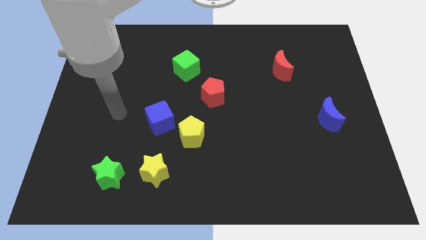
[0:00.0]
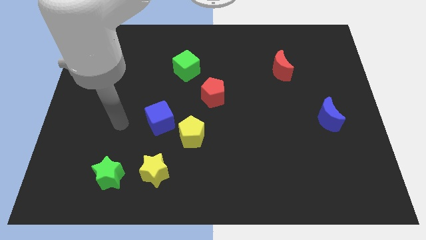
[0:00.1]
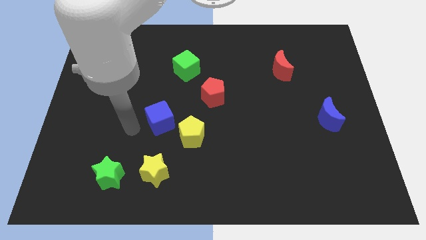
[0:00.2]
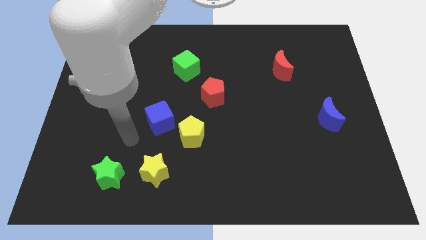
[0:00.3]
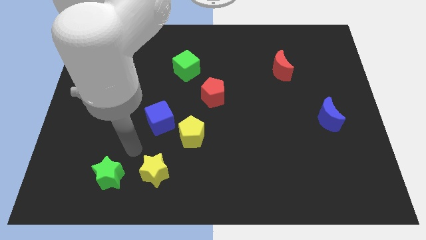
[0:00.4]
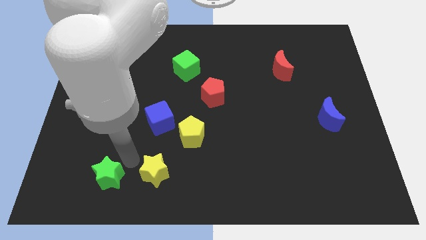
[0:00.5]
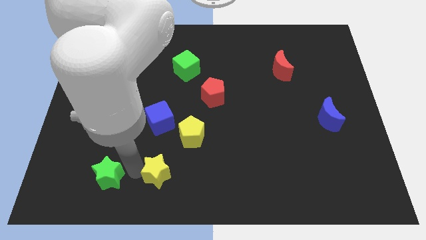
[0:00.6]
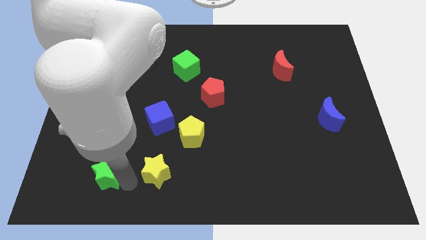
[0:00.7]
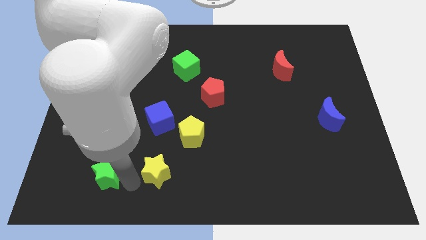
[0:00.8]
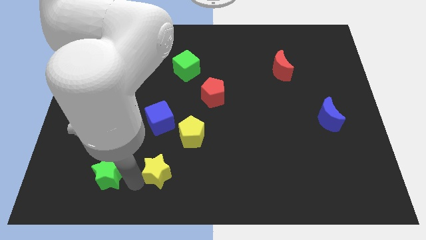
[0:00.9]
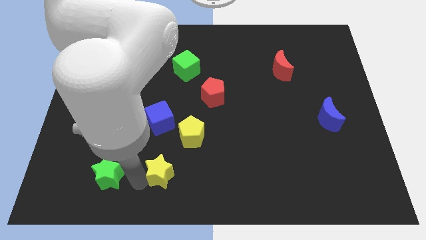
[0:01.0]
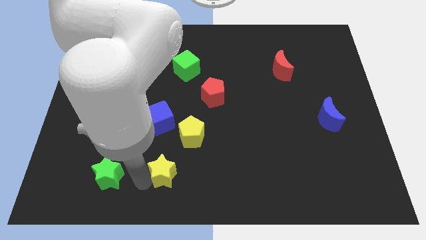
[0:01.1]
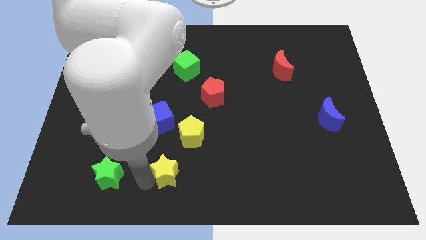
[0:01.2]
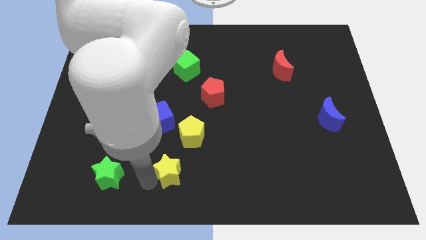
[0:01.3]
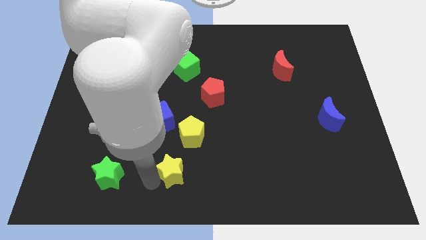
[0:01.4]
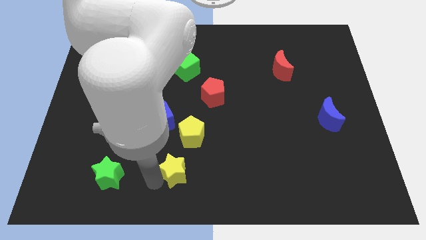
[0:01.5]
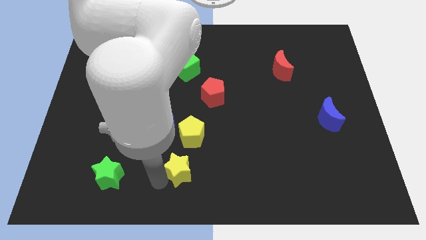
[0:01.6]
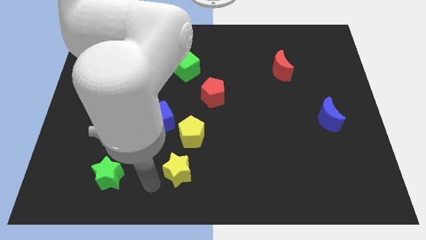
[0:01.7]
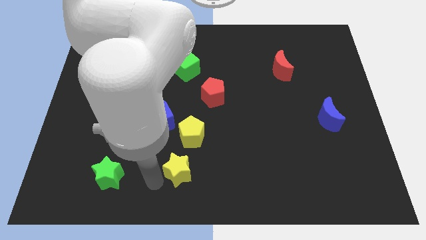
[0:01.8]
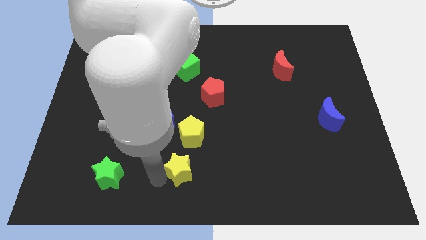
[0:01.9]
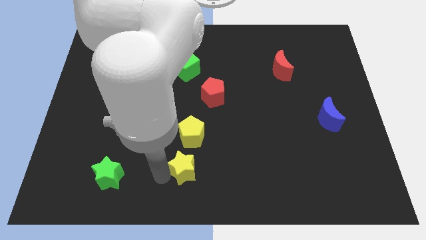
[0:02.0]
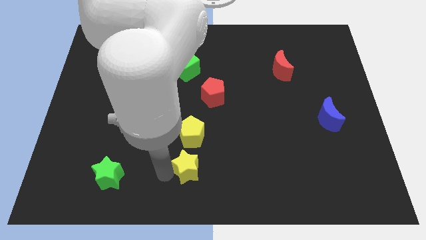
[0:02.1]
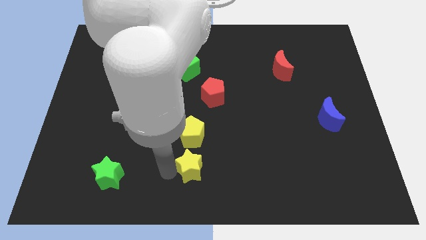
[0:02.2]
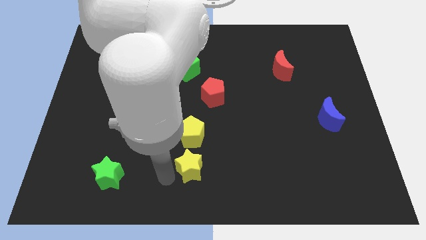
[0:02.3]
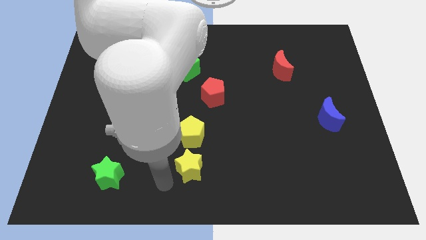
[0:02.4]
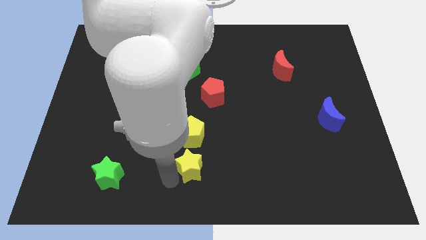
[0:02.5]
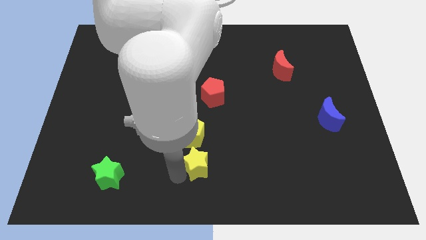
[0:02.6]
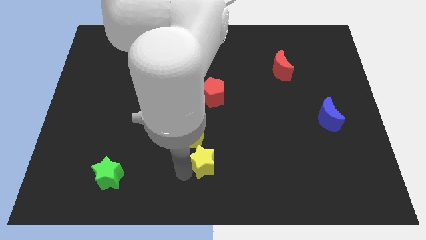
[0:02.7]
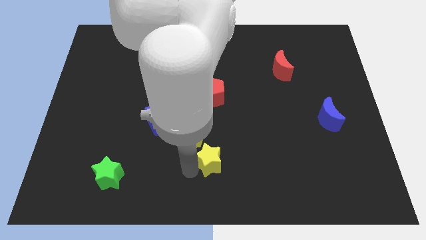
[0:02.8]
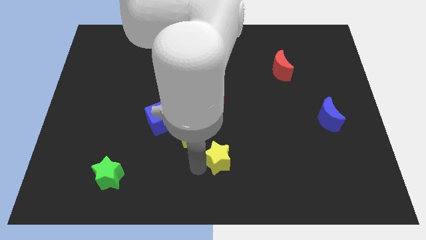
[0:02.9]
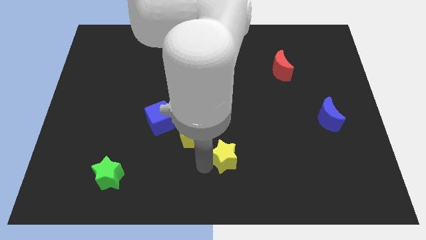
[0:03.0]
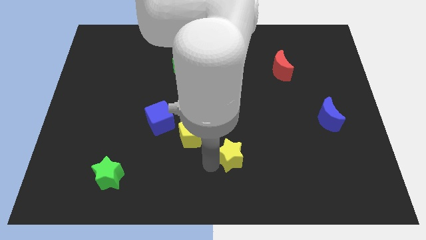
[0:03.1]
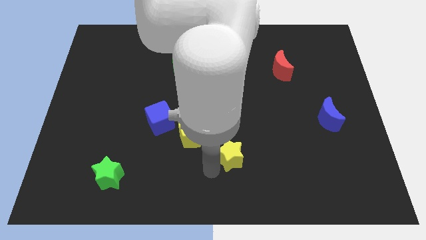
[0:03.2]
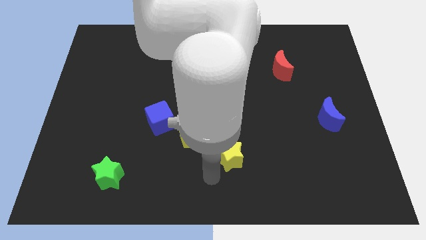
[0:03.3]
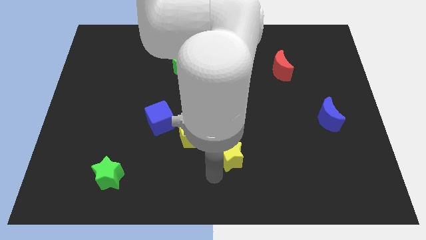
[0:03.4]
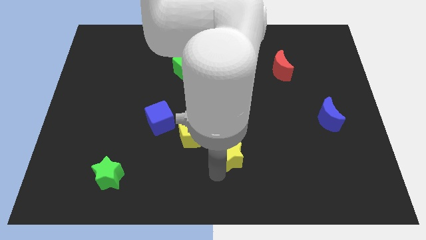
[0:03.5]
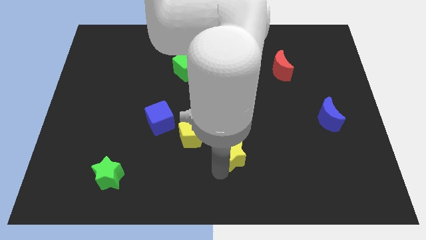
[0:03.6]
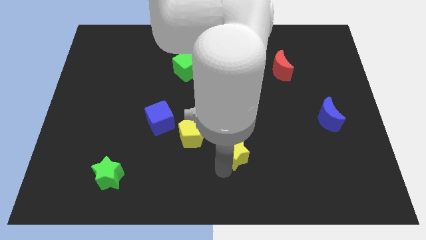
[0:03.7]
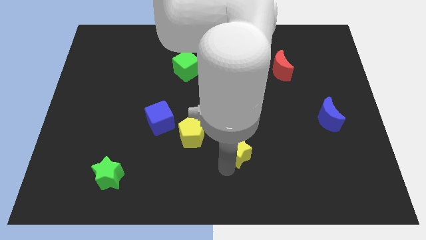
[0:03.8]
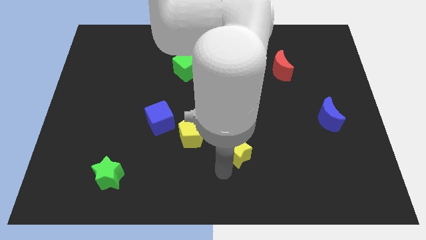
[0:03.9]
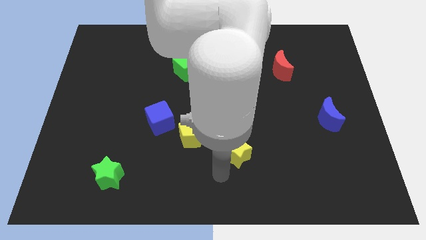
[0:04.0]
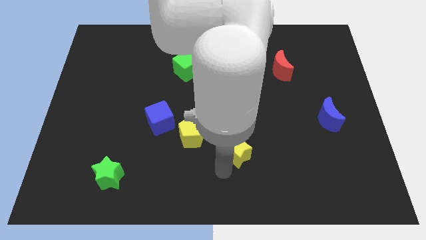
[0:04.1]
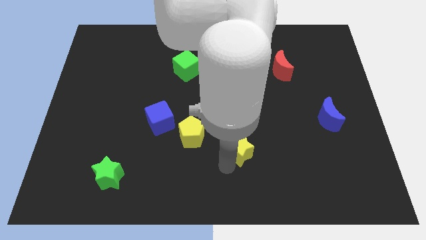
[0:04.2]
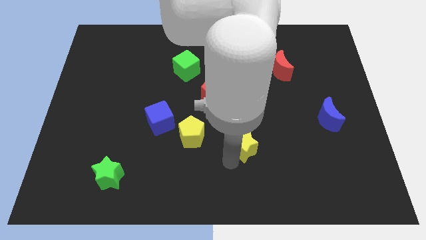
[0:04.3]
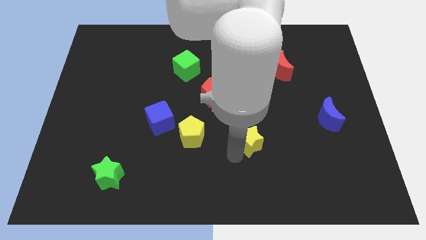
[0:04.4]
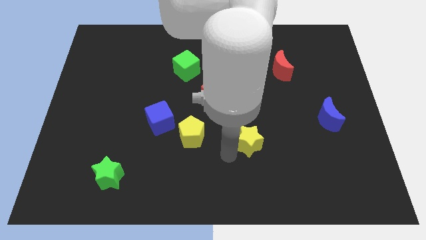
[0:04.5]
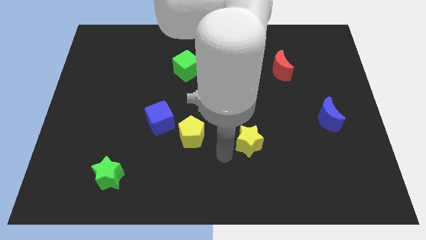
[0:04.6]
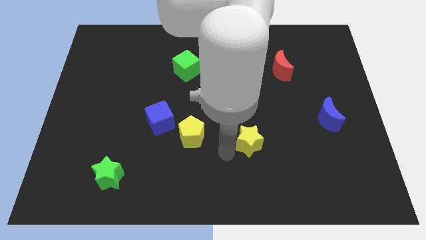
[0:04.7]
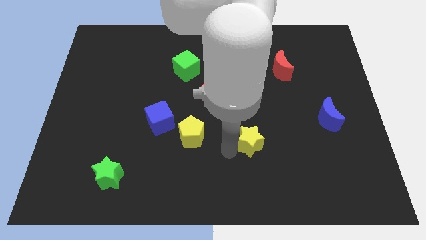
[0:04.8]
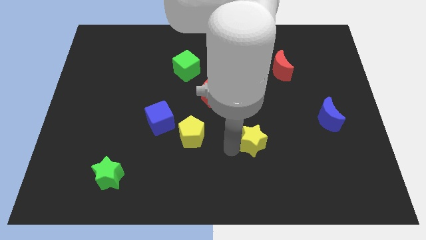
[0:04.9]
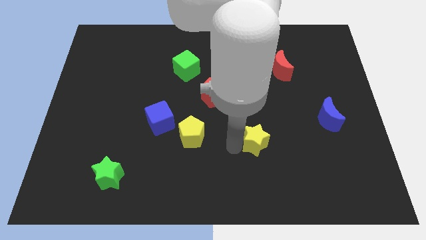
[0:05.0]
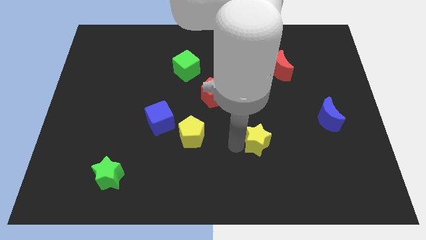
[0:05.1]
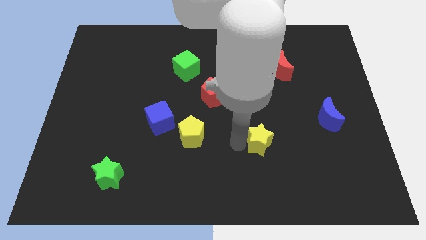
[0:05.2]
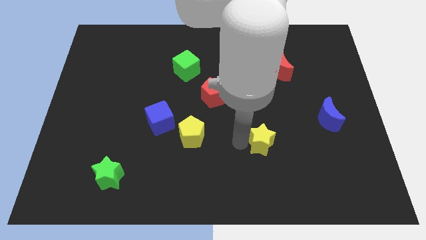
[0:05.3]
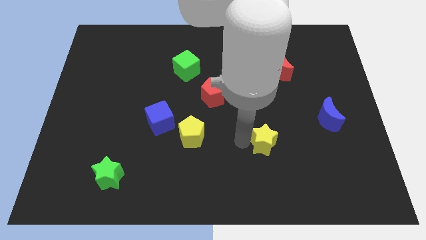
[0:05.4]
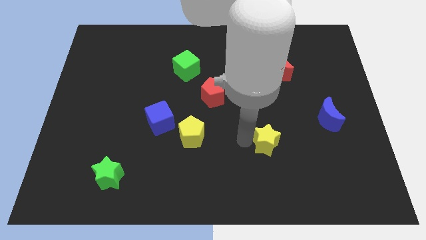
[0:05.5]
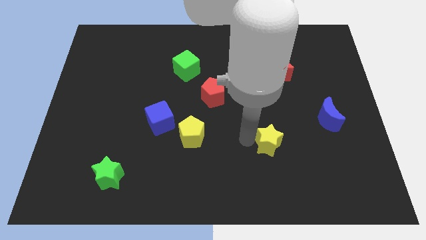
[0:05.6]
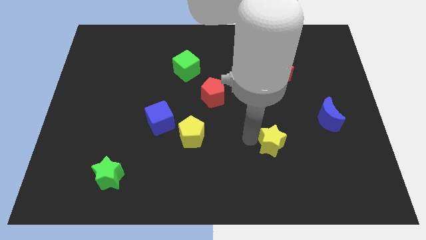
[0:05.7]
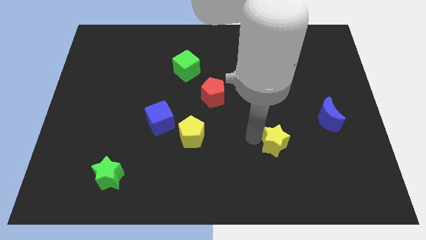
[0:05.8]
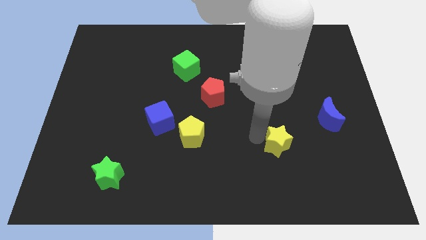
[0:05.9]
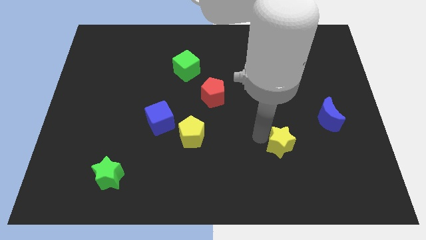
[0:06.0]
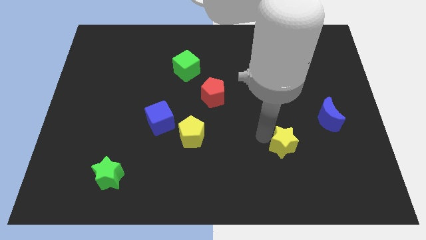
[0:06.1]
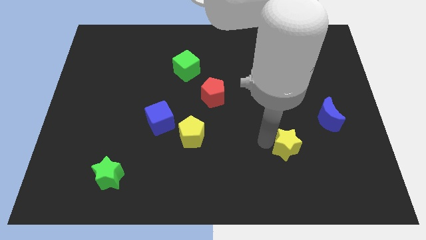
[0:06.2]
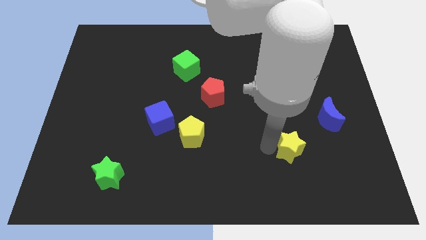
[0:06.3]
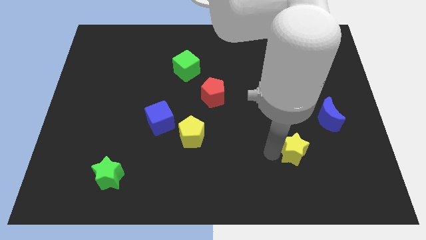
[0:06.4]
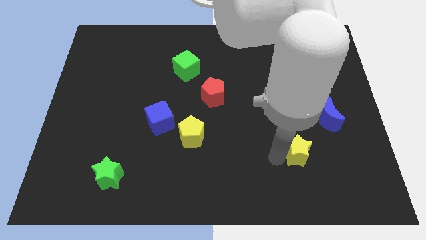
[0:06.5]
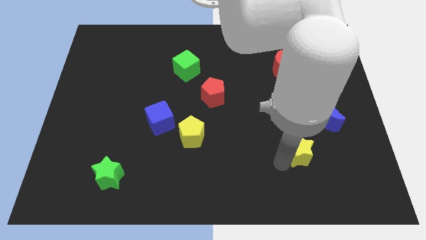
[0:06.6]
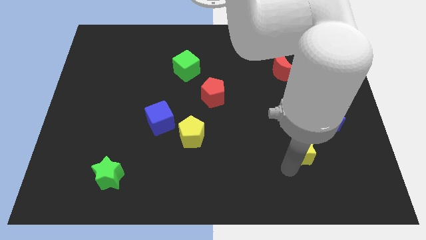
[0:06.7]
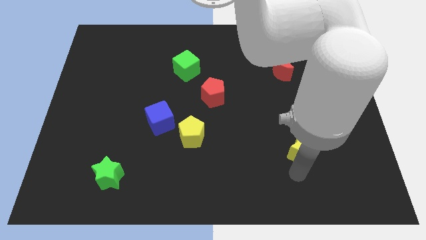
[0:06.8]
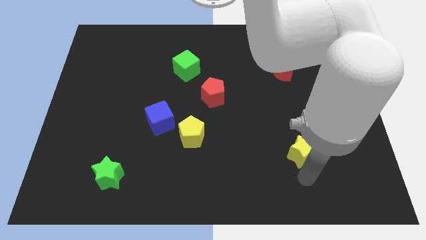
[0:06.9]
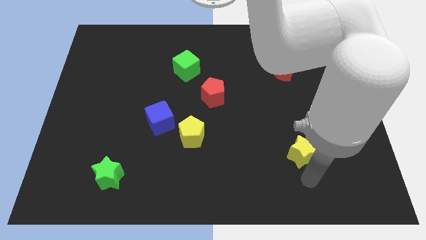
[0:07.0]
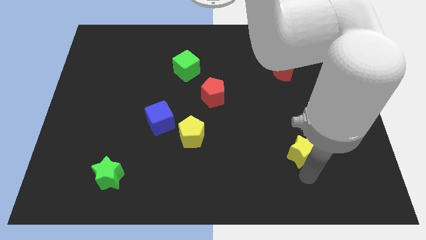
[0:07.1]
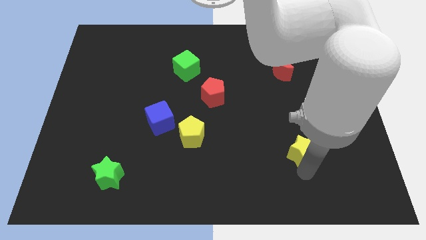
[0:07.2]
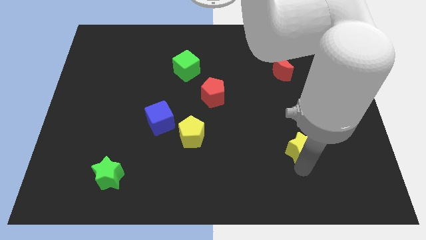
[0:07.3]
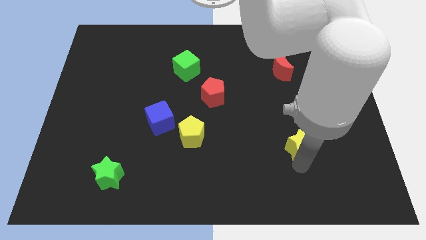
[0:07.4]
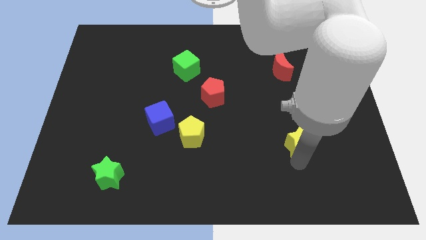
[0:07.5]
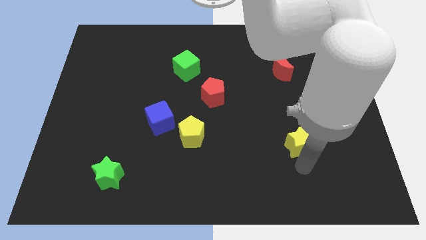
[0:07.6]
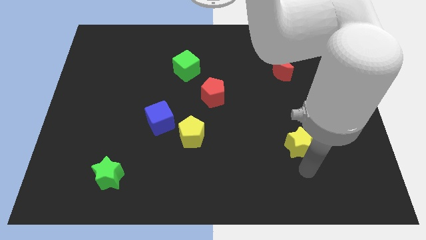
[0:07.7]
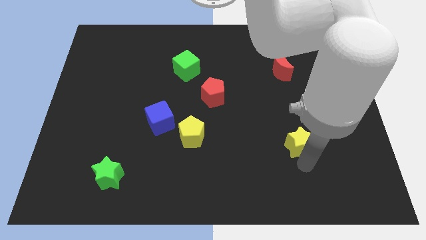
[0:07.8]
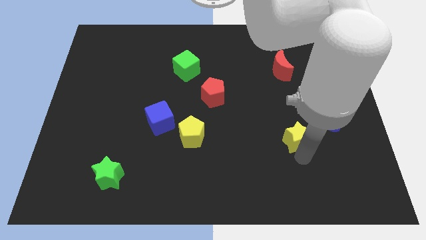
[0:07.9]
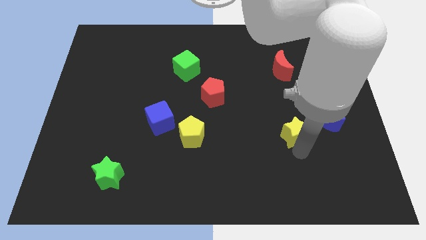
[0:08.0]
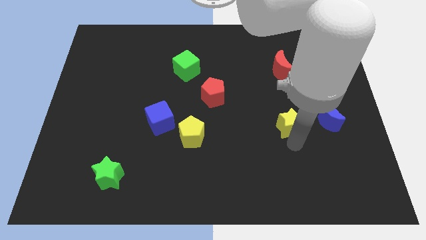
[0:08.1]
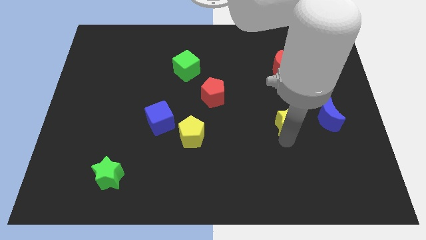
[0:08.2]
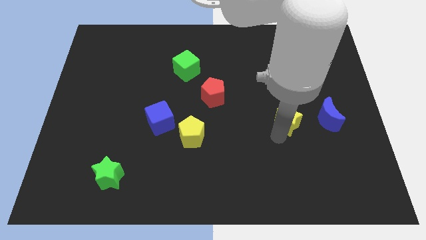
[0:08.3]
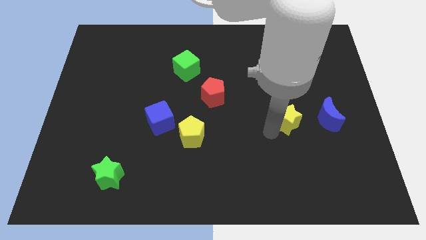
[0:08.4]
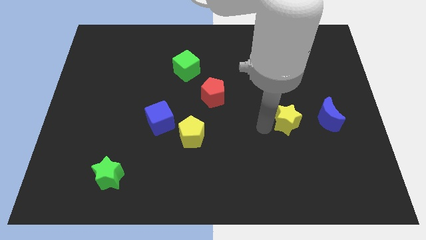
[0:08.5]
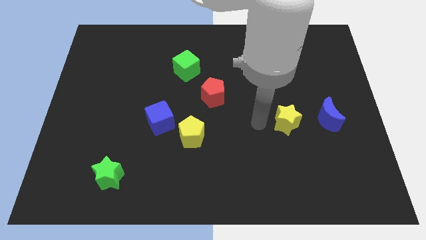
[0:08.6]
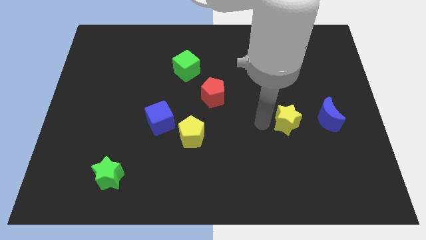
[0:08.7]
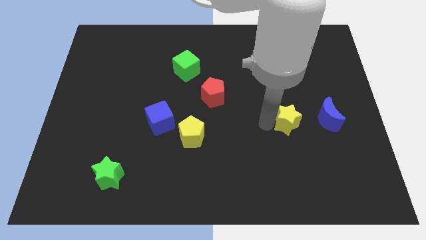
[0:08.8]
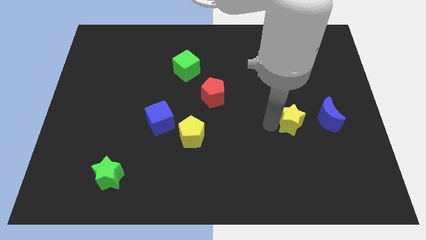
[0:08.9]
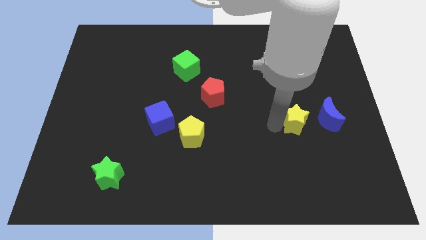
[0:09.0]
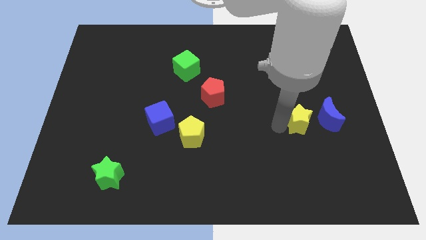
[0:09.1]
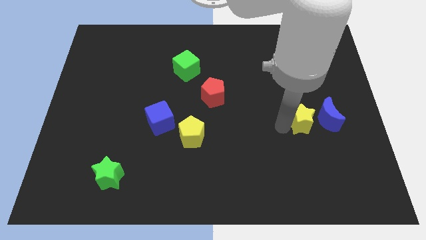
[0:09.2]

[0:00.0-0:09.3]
push the yellow star next to the blue moon
